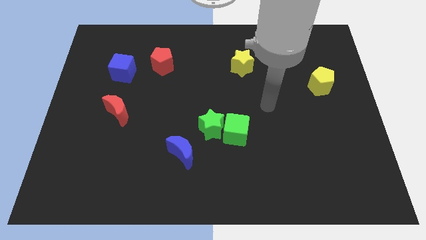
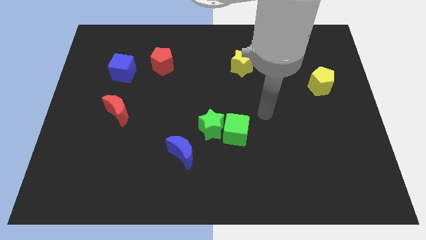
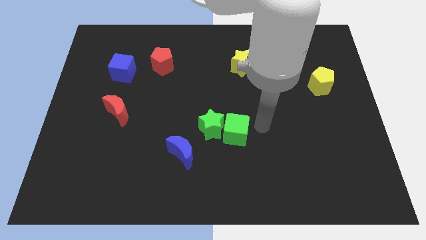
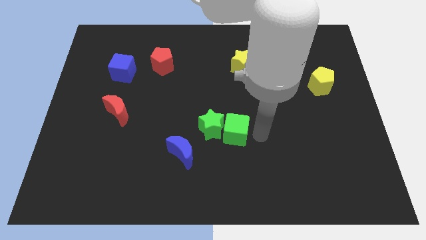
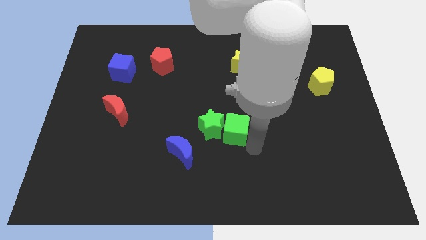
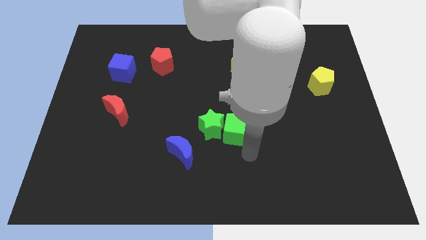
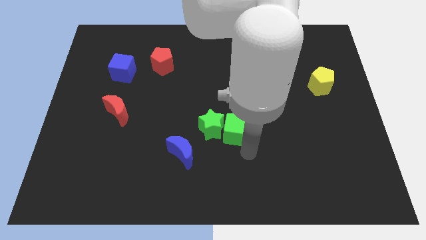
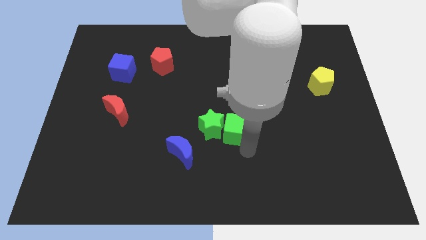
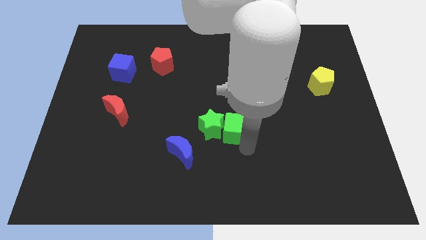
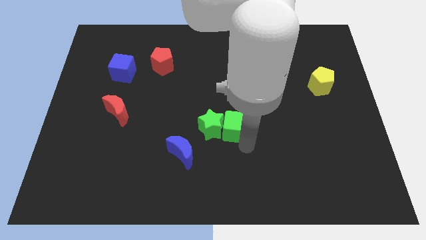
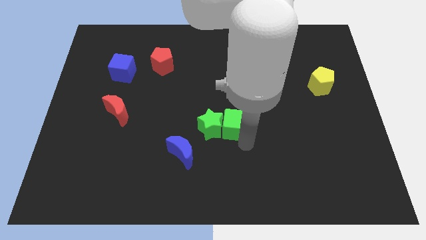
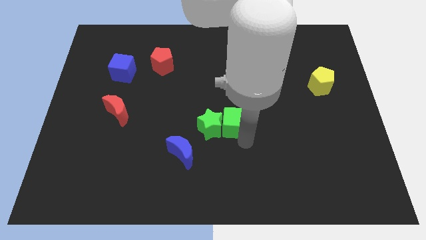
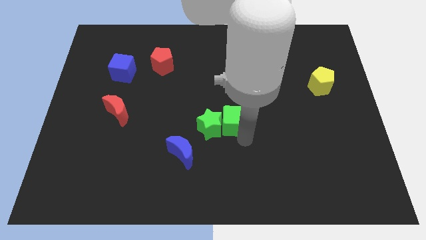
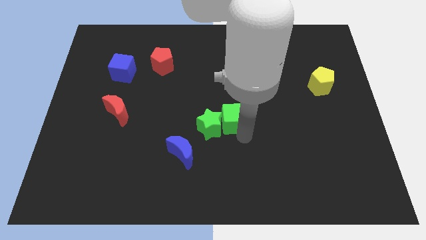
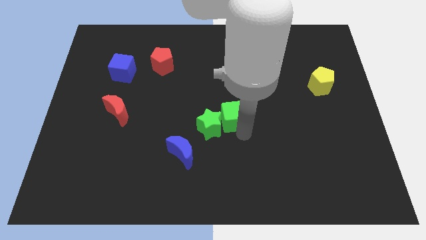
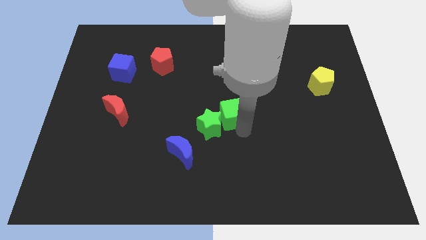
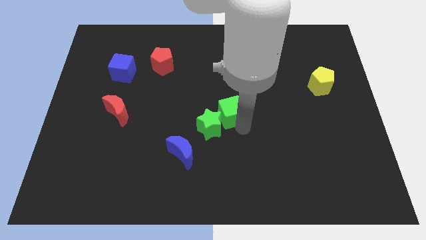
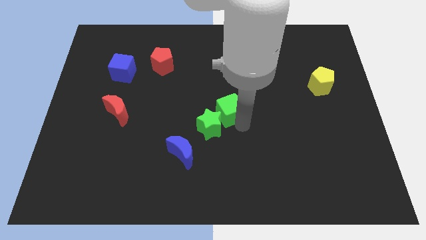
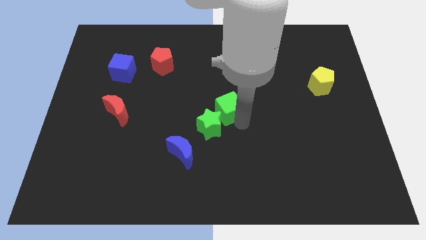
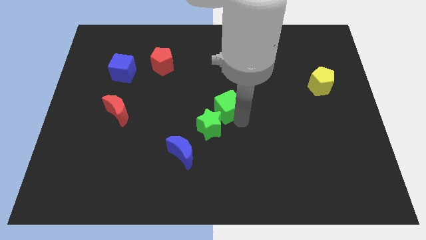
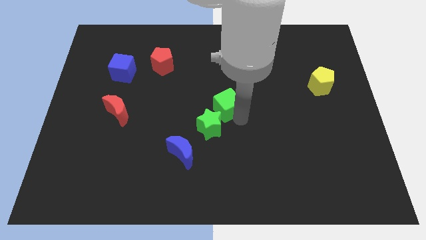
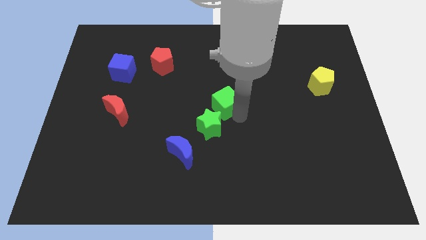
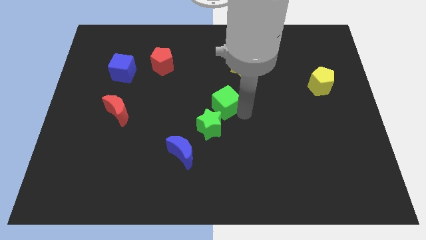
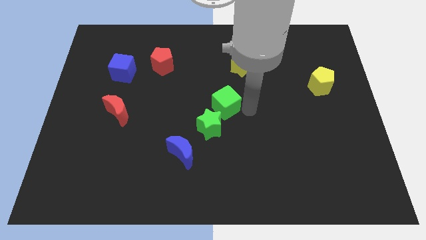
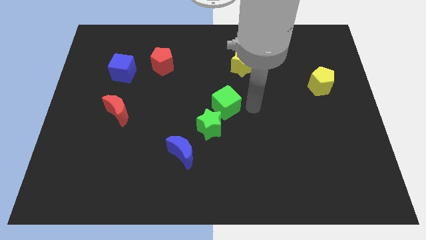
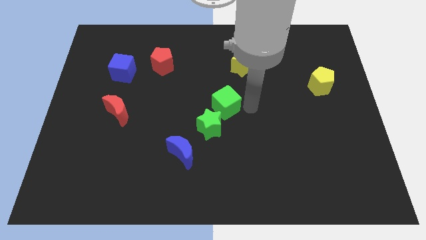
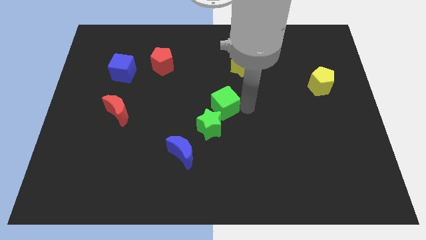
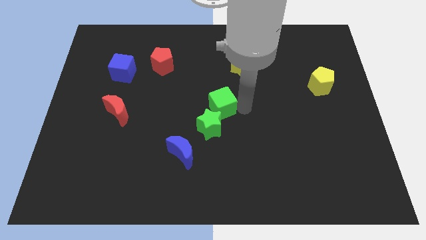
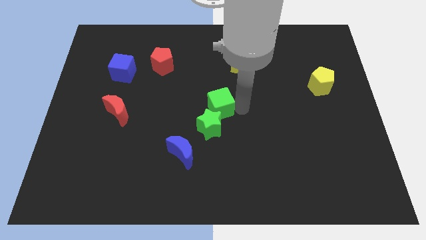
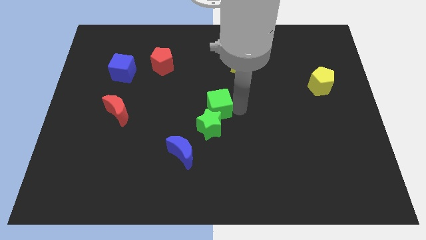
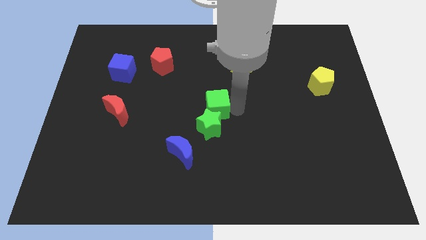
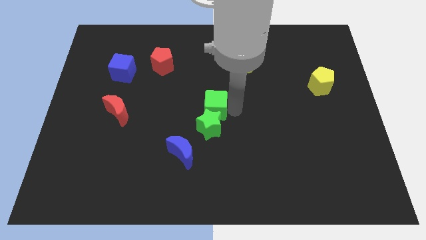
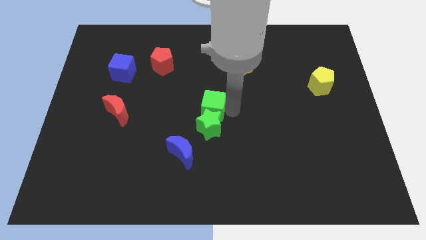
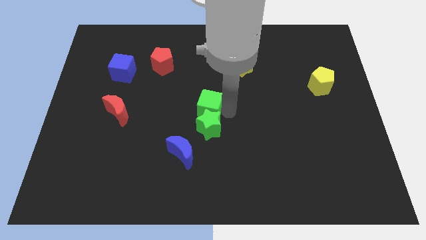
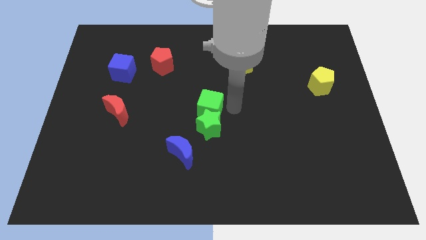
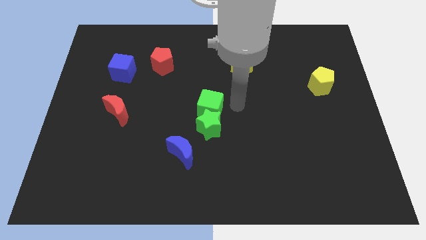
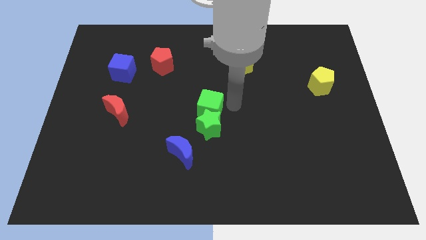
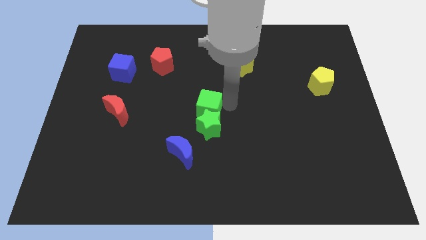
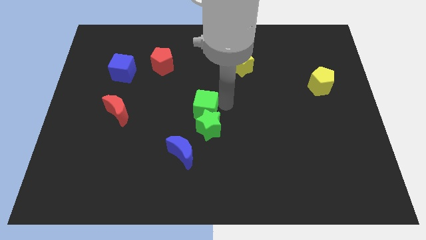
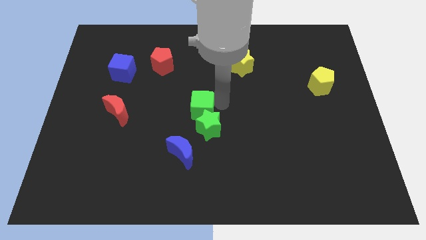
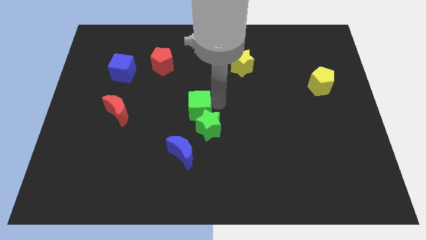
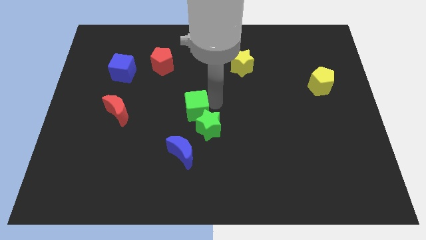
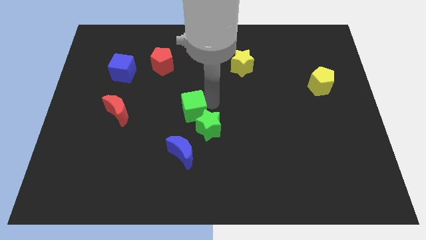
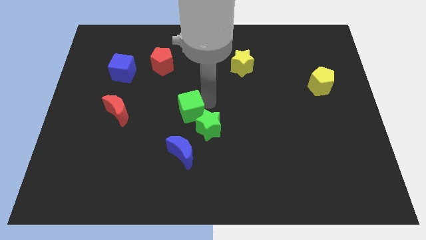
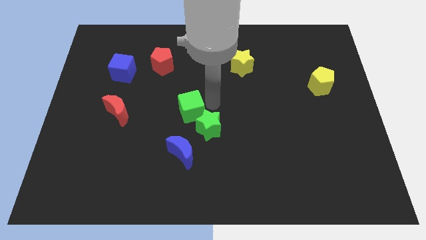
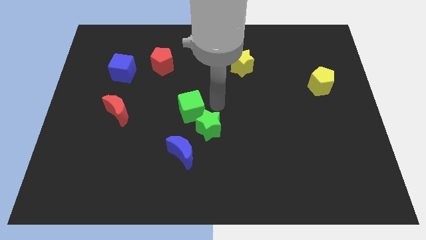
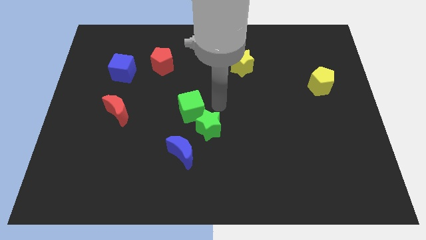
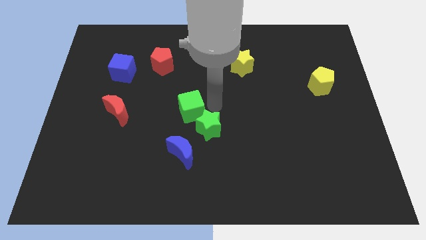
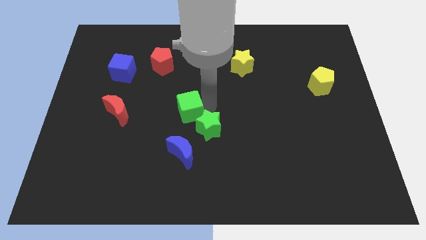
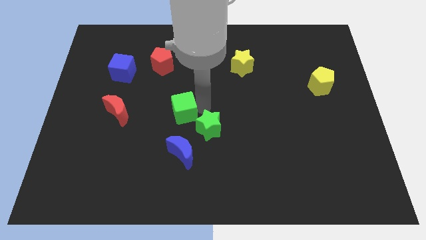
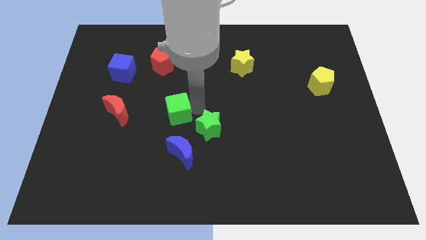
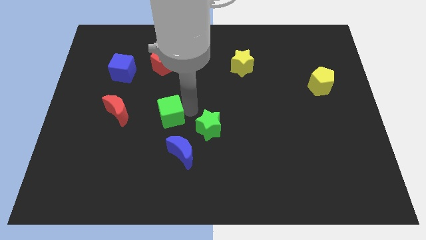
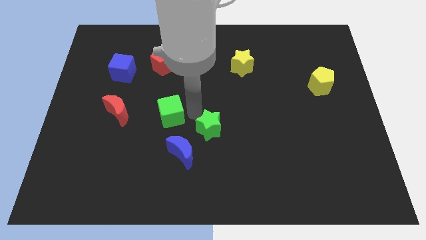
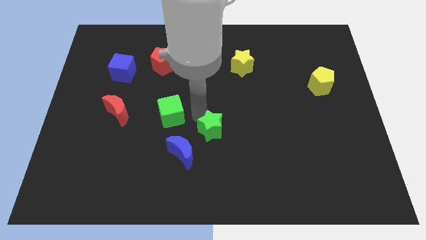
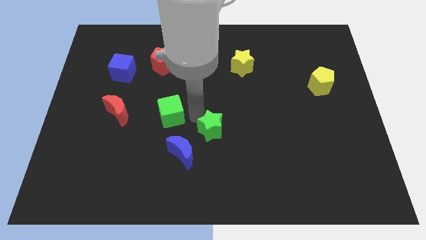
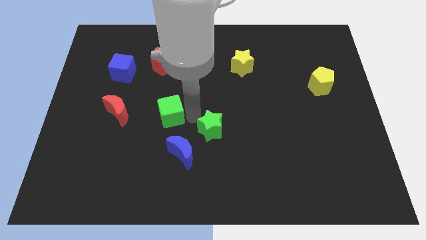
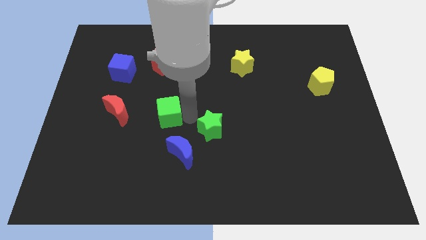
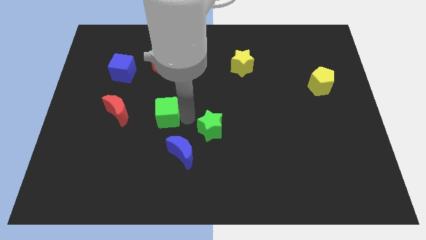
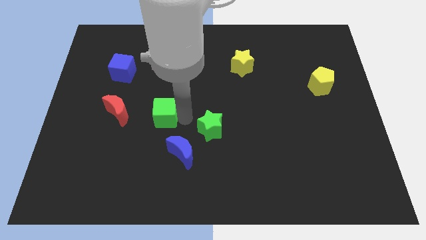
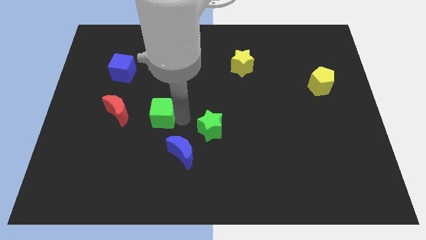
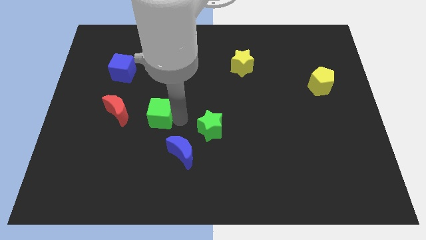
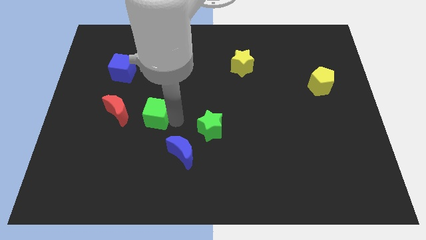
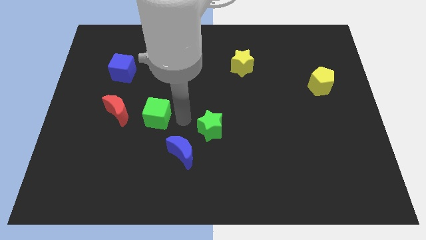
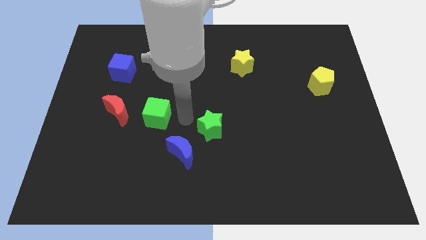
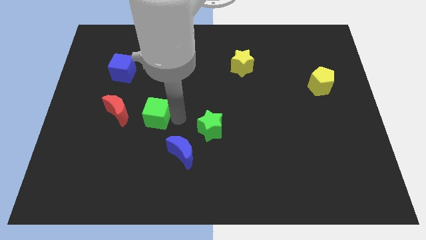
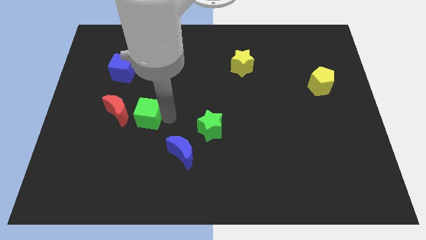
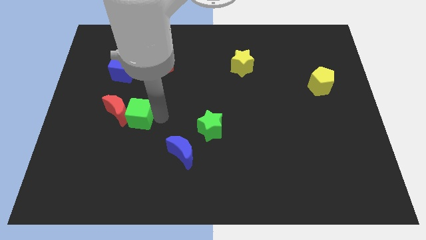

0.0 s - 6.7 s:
move the green cube towards the red moon
